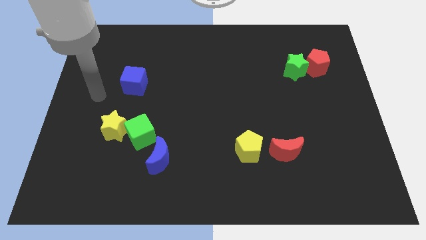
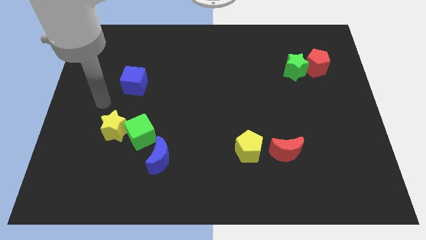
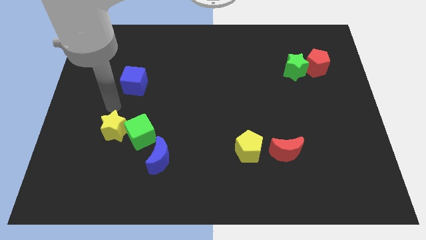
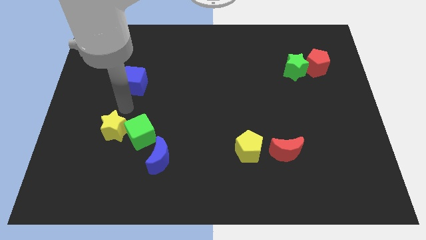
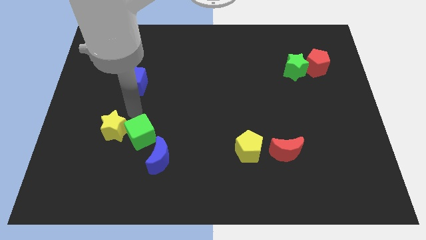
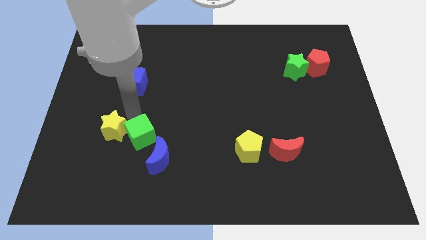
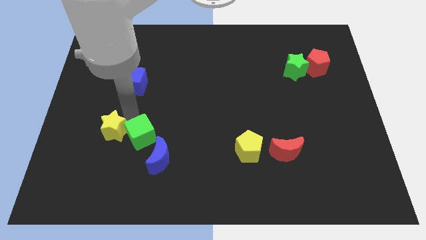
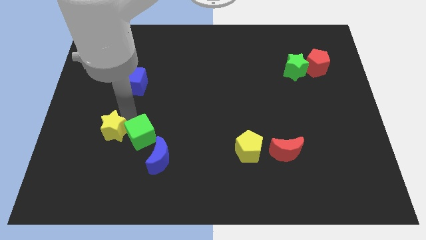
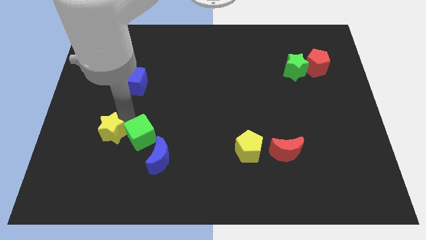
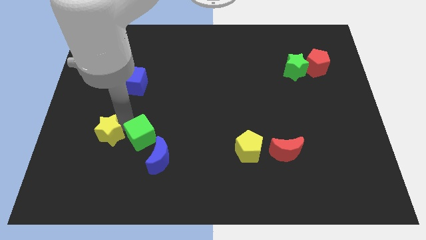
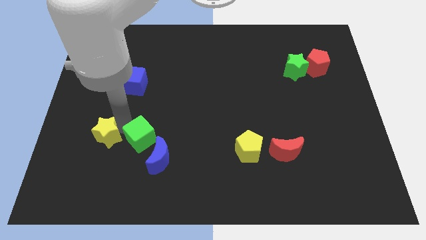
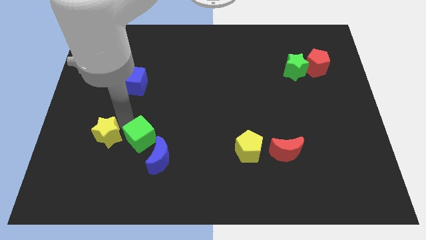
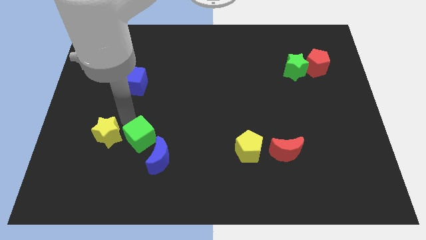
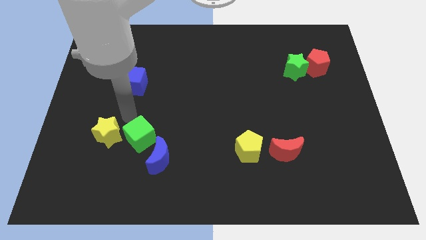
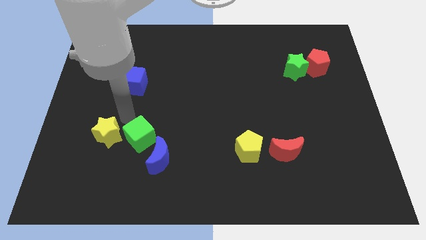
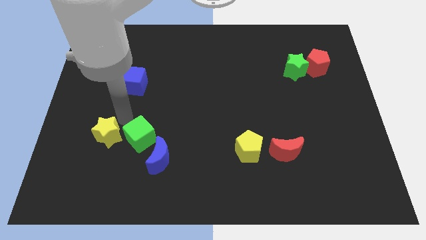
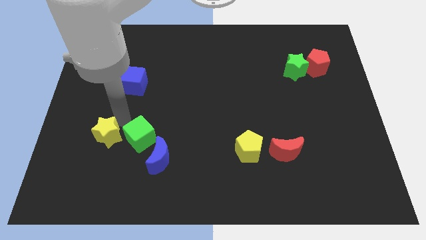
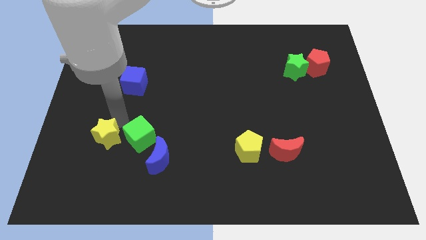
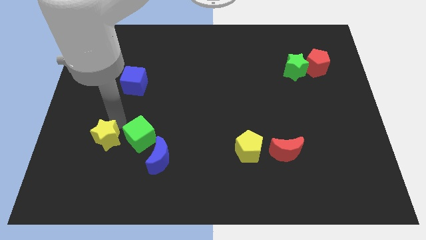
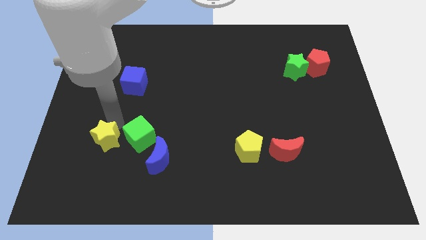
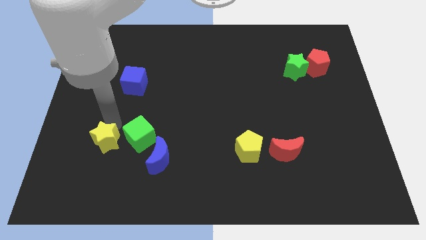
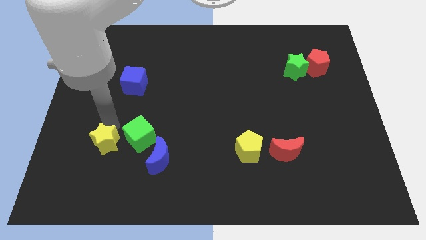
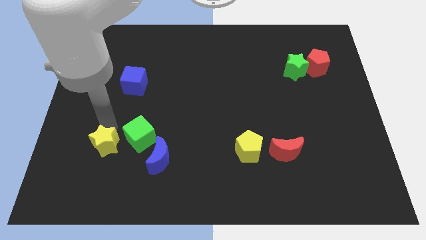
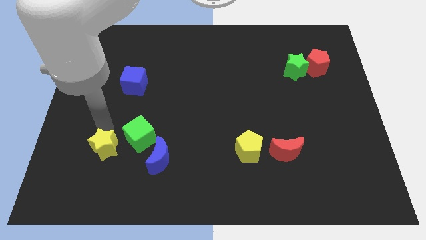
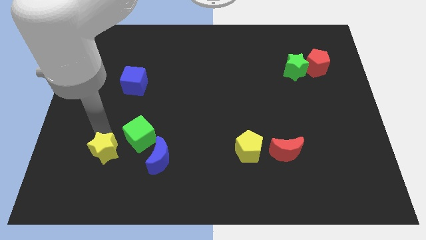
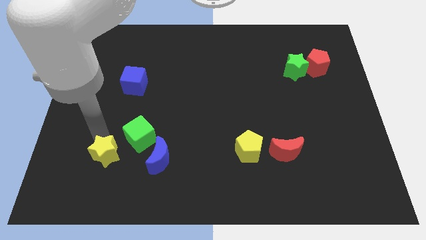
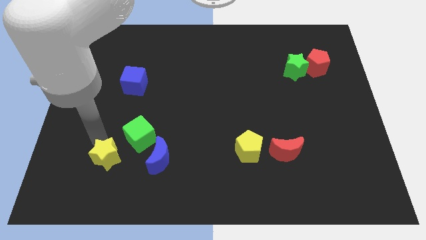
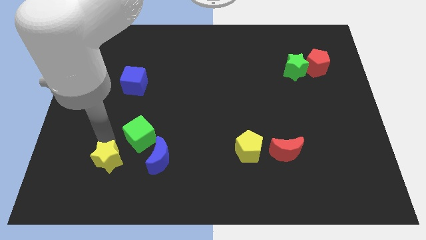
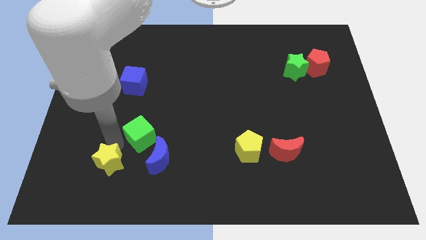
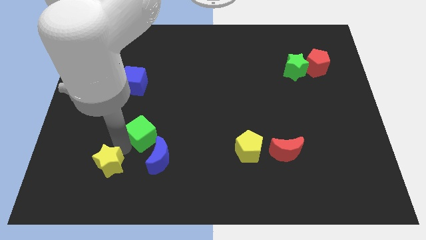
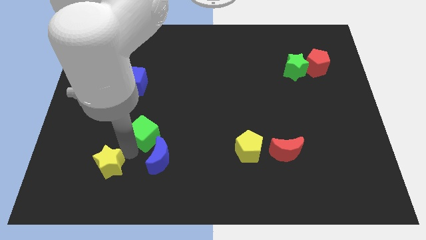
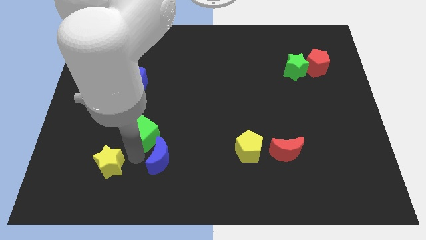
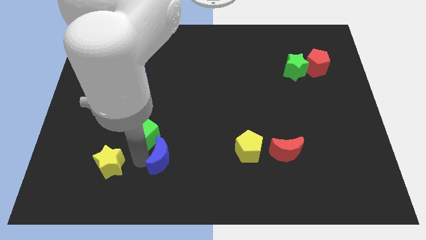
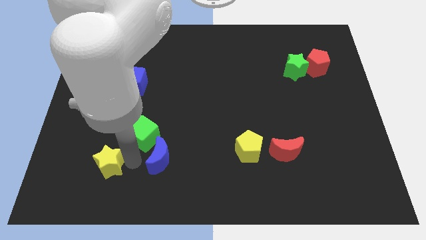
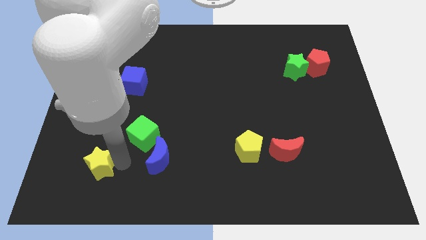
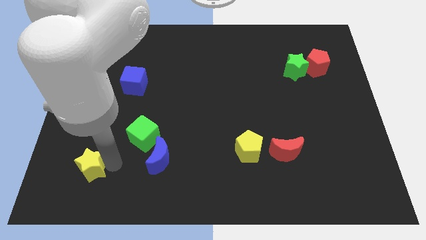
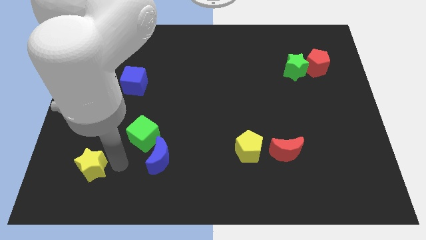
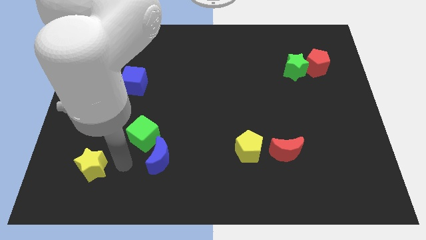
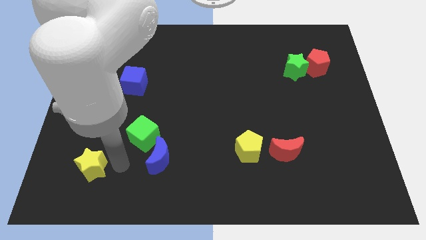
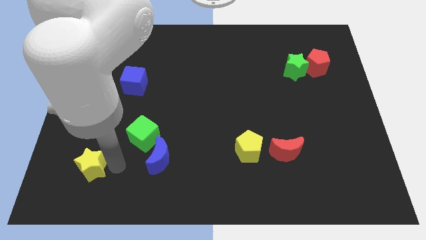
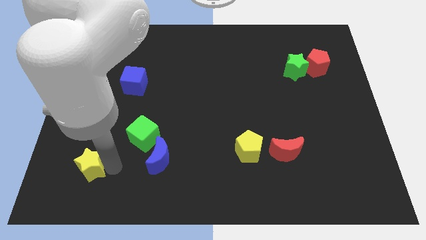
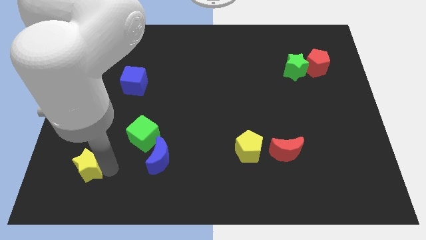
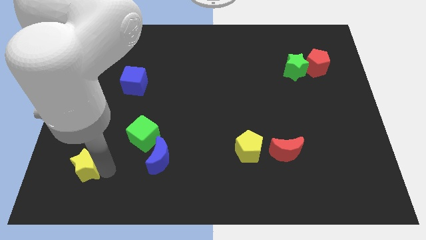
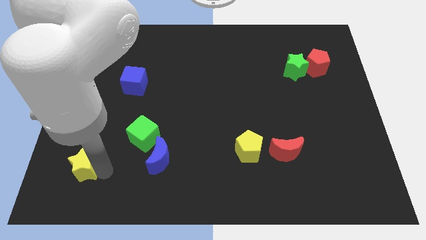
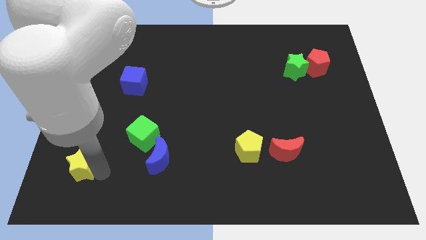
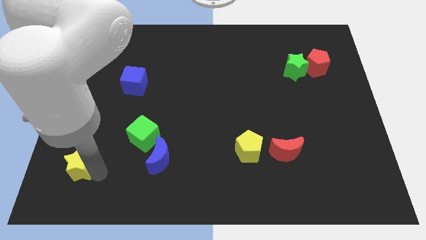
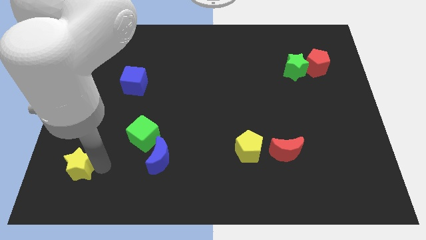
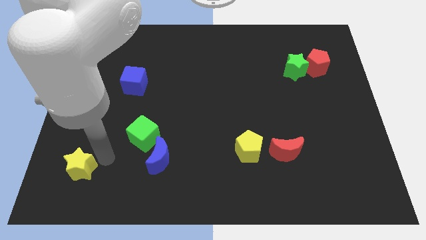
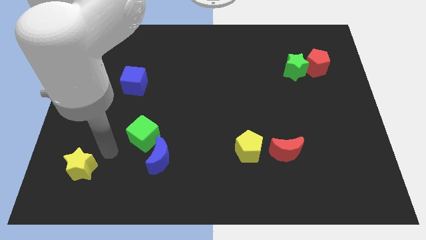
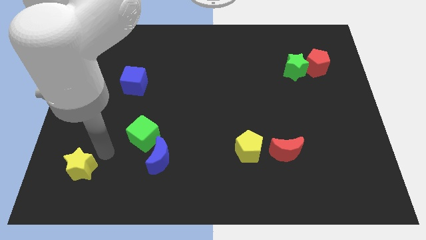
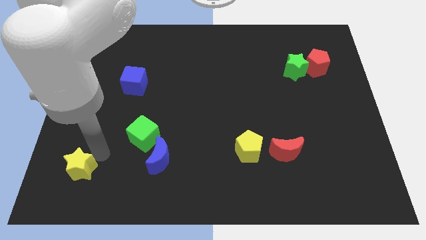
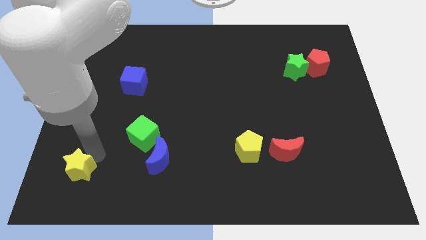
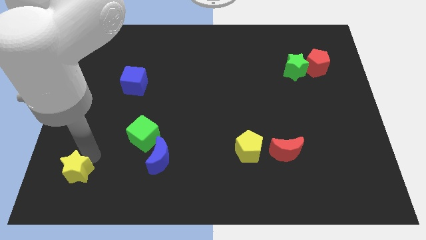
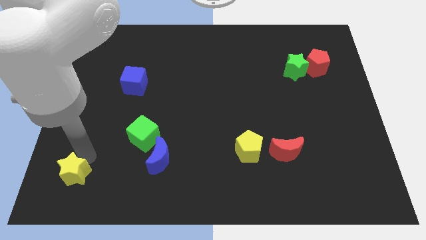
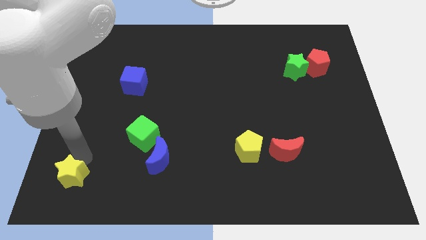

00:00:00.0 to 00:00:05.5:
slide the yellow star to the bottom left of the board
